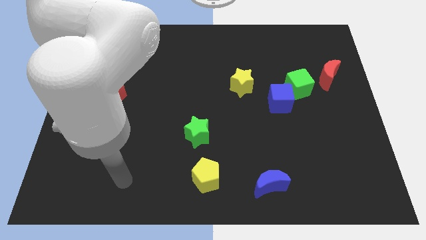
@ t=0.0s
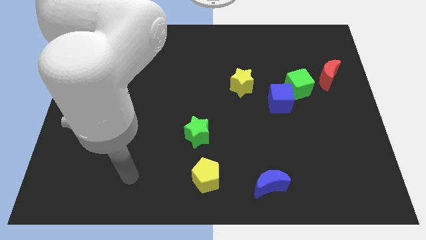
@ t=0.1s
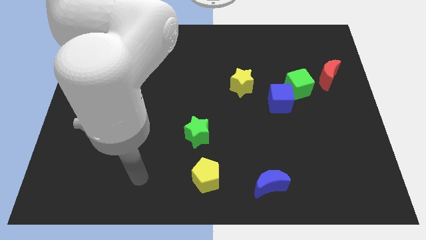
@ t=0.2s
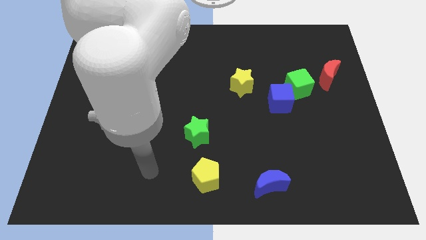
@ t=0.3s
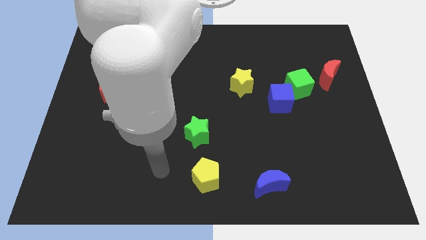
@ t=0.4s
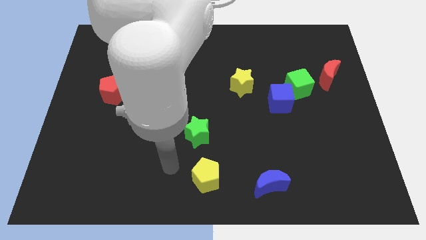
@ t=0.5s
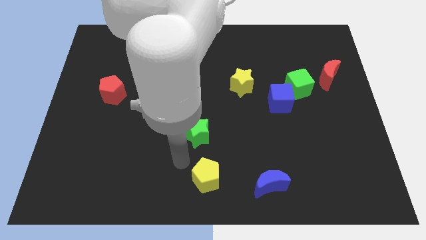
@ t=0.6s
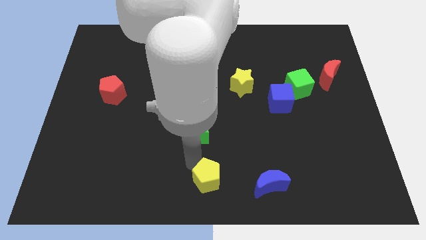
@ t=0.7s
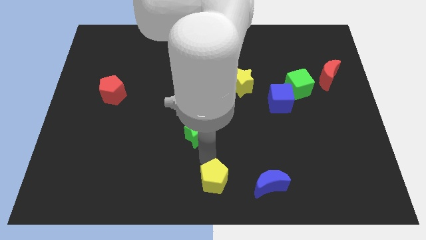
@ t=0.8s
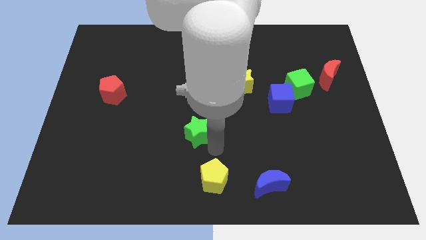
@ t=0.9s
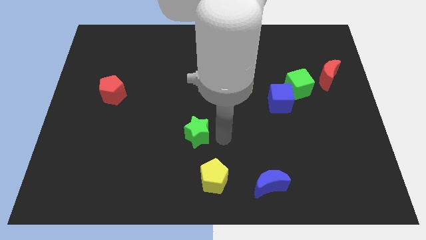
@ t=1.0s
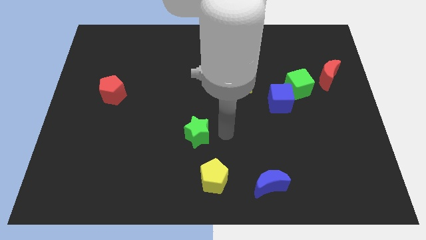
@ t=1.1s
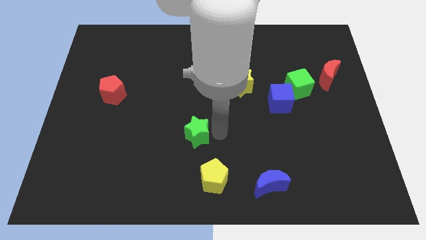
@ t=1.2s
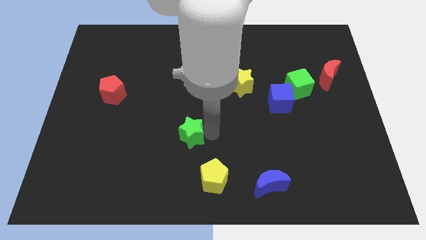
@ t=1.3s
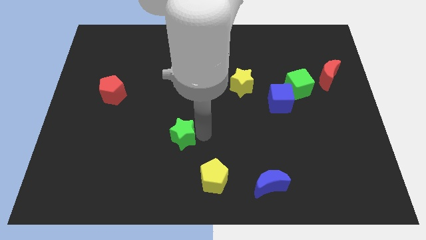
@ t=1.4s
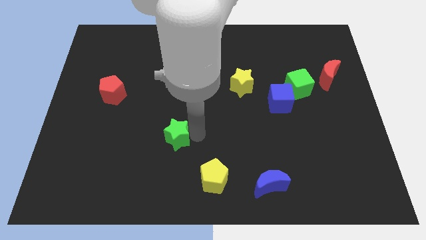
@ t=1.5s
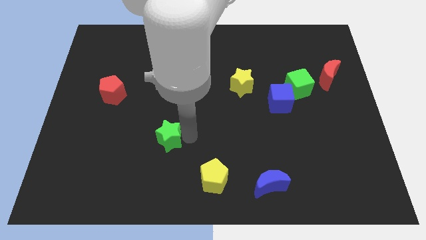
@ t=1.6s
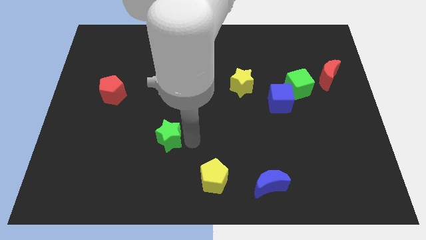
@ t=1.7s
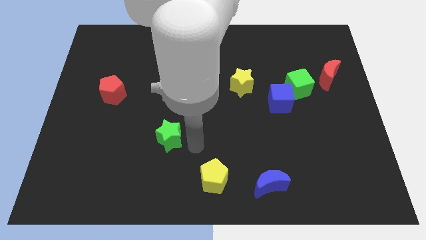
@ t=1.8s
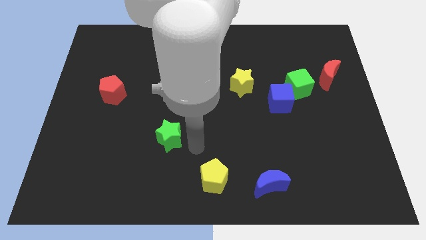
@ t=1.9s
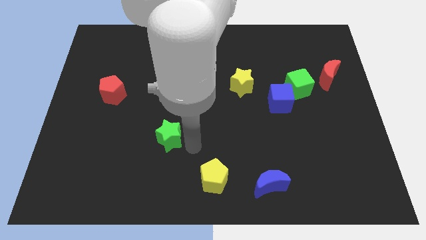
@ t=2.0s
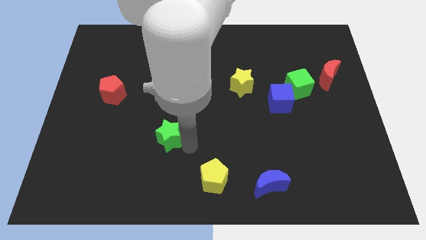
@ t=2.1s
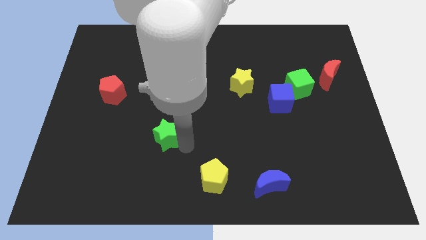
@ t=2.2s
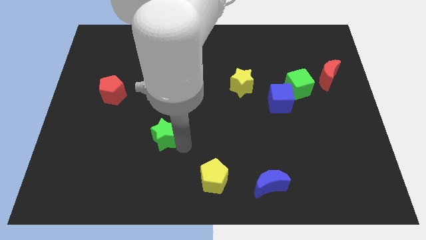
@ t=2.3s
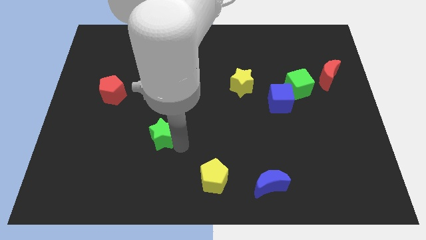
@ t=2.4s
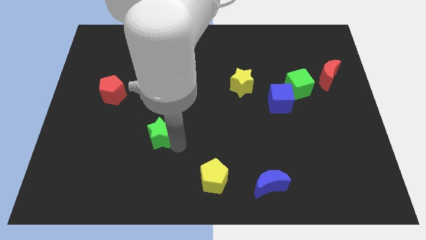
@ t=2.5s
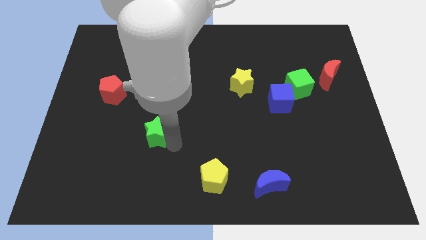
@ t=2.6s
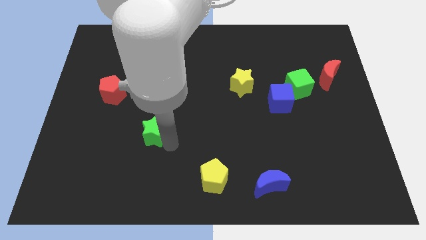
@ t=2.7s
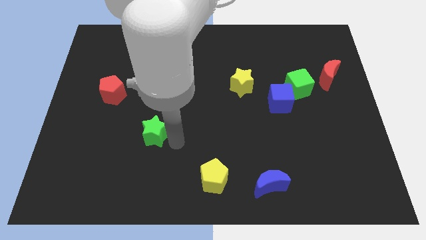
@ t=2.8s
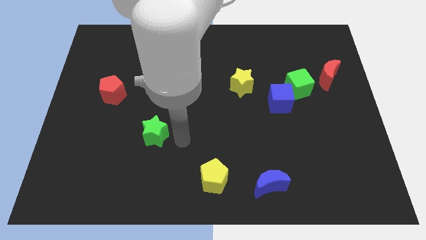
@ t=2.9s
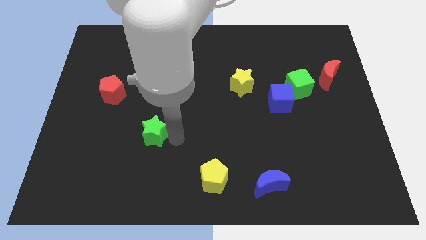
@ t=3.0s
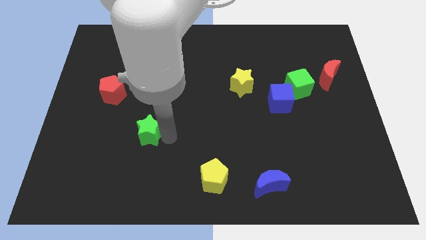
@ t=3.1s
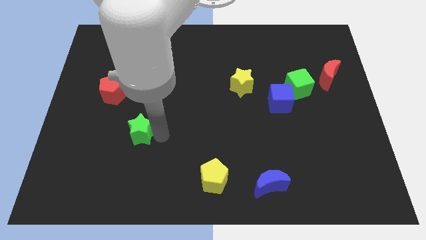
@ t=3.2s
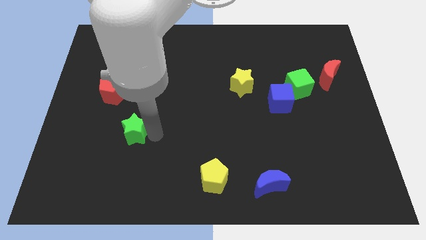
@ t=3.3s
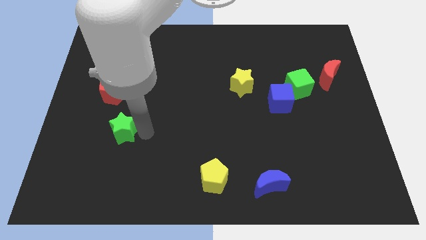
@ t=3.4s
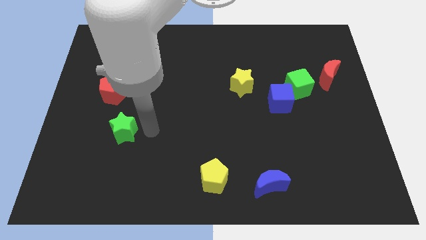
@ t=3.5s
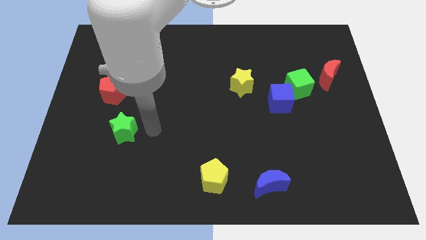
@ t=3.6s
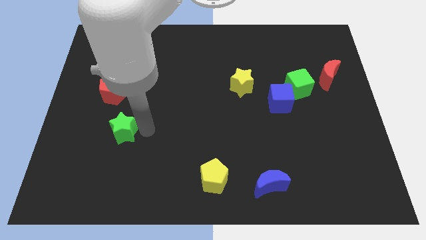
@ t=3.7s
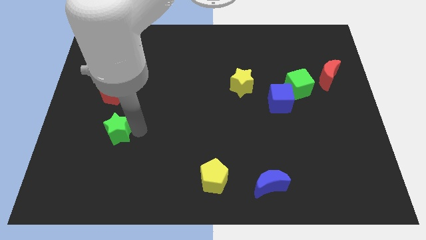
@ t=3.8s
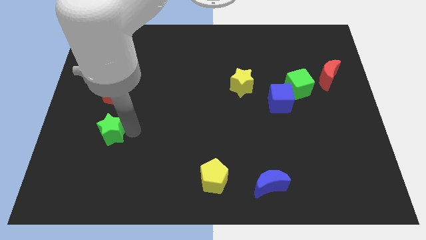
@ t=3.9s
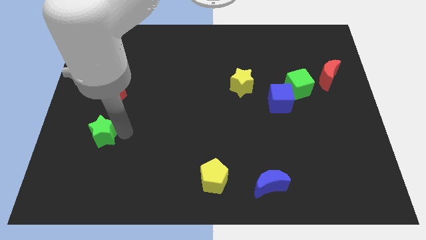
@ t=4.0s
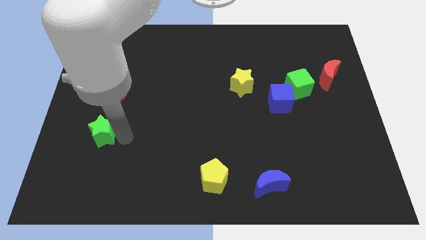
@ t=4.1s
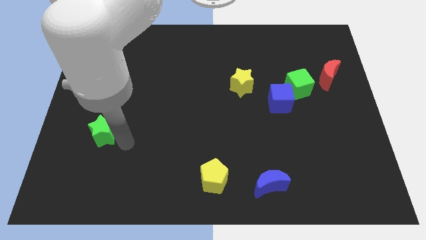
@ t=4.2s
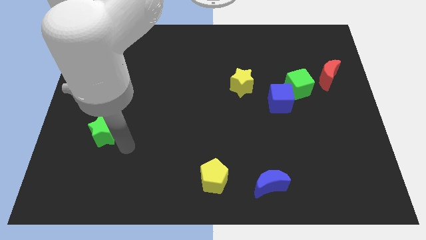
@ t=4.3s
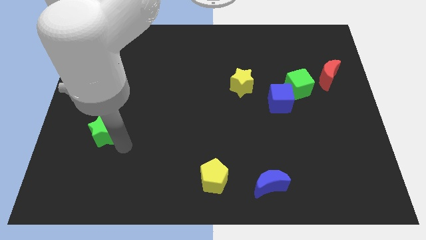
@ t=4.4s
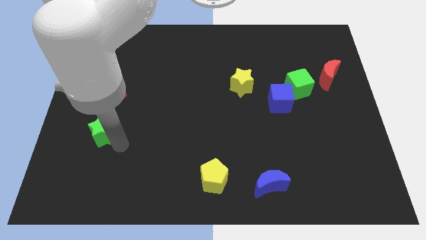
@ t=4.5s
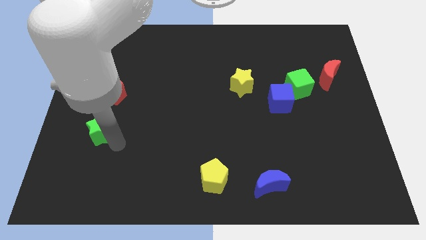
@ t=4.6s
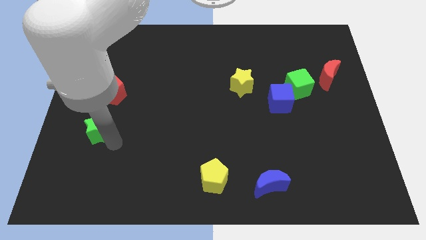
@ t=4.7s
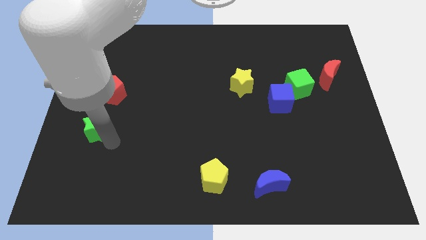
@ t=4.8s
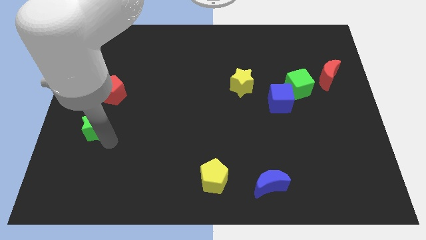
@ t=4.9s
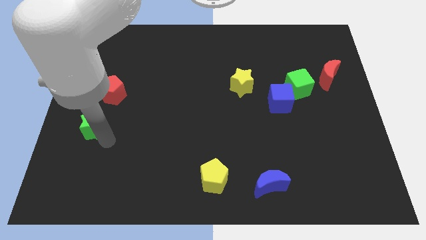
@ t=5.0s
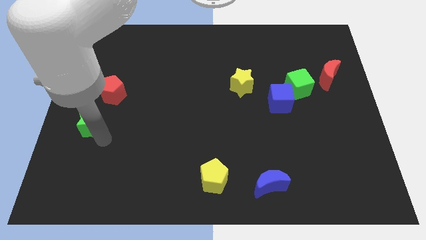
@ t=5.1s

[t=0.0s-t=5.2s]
move the green star to the center left
